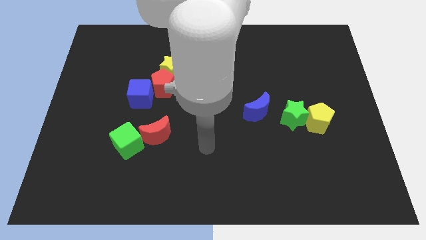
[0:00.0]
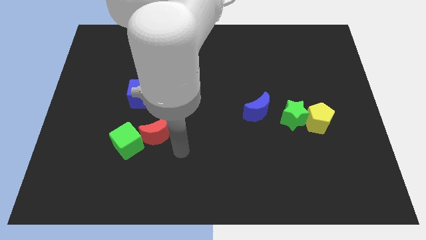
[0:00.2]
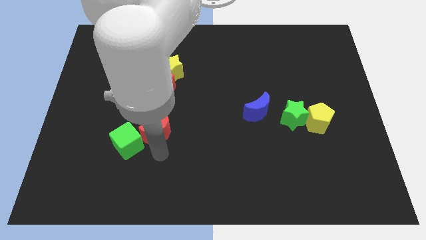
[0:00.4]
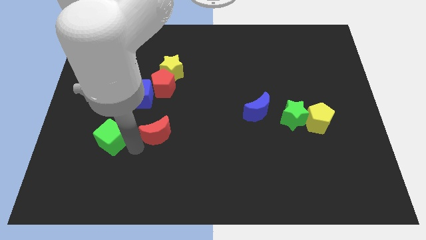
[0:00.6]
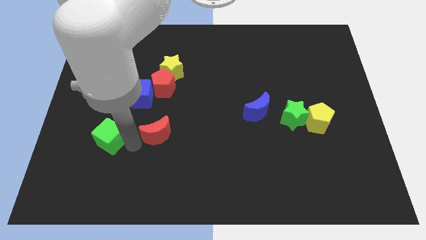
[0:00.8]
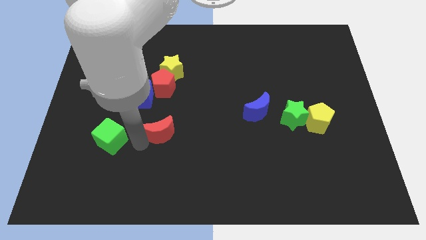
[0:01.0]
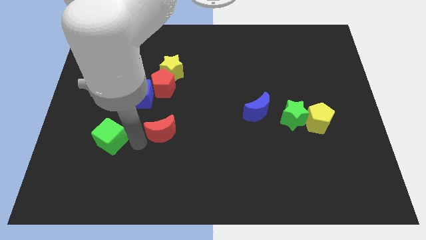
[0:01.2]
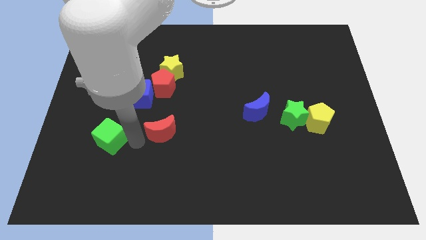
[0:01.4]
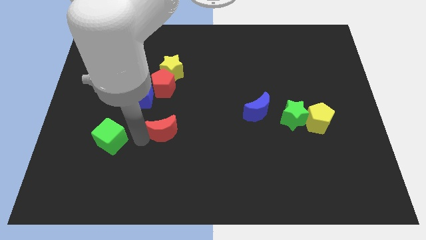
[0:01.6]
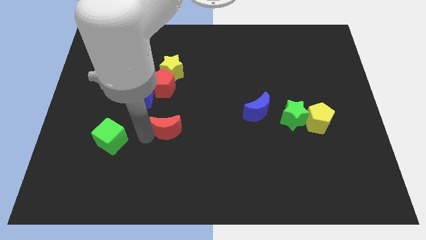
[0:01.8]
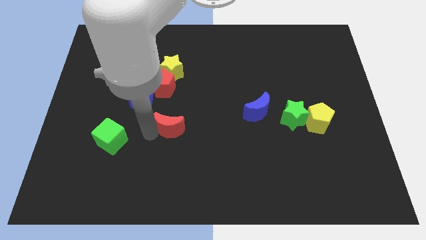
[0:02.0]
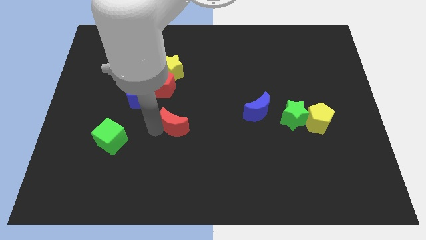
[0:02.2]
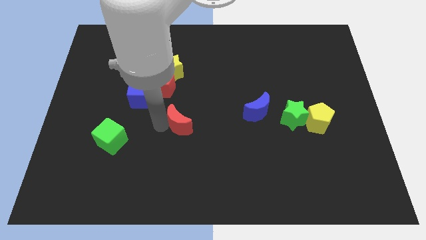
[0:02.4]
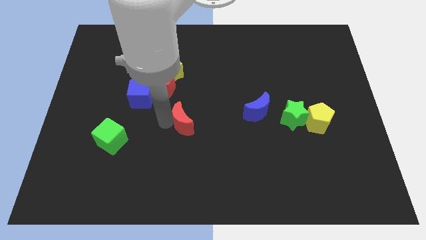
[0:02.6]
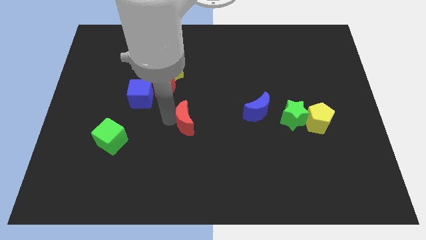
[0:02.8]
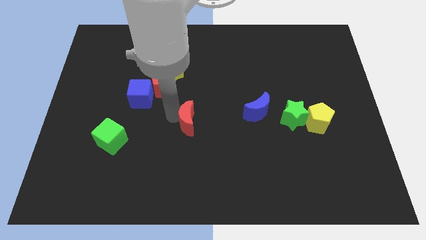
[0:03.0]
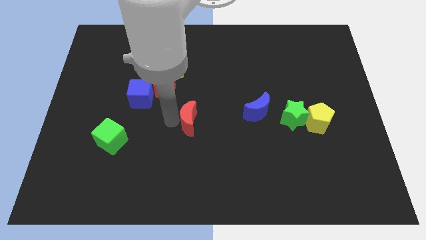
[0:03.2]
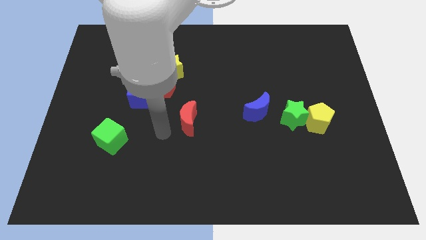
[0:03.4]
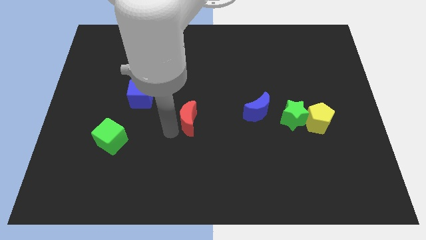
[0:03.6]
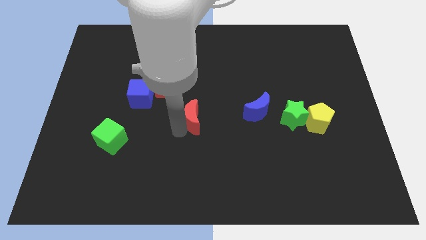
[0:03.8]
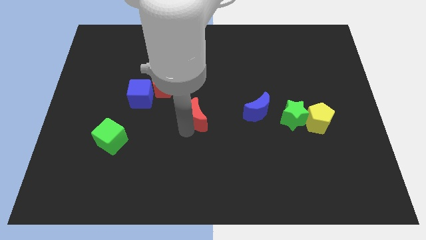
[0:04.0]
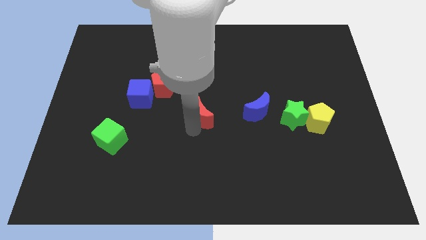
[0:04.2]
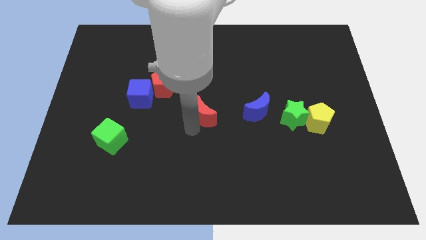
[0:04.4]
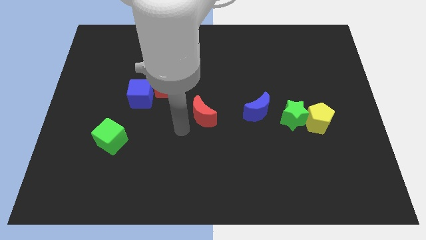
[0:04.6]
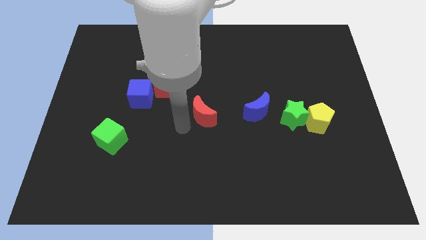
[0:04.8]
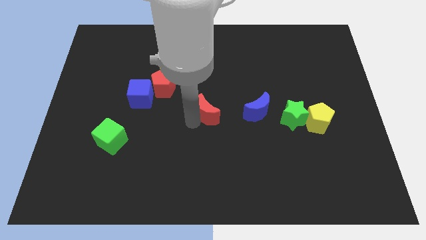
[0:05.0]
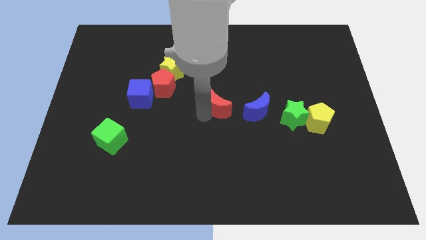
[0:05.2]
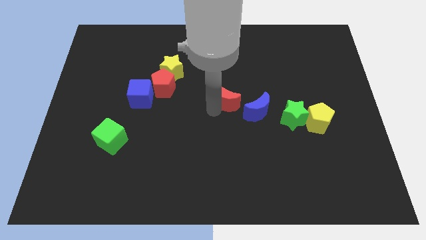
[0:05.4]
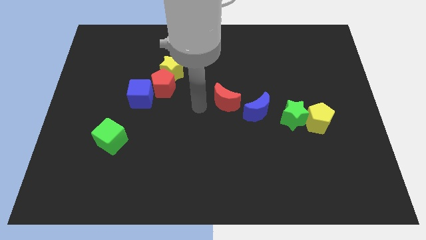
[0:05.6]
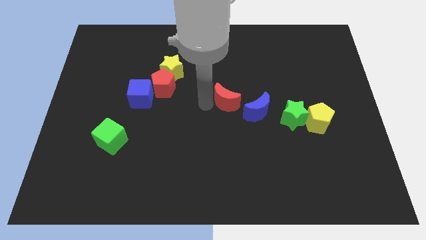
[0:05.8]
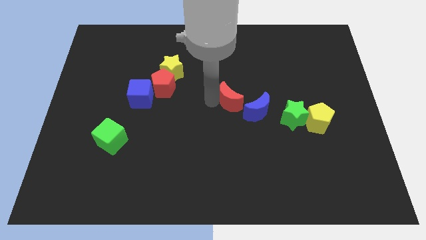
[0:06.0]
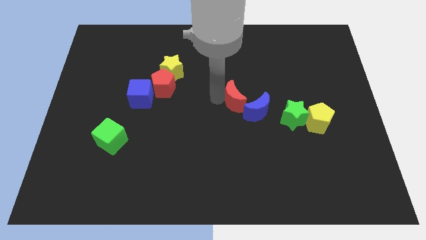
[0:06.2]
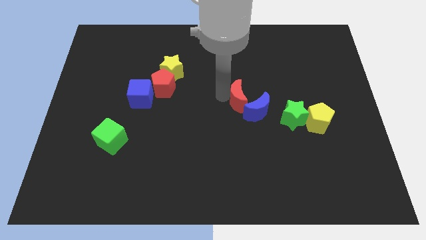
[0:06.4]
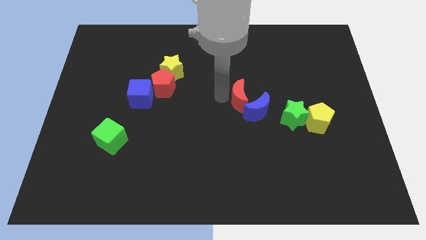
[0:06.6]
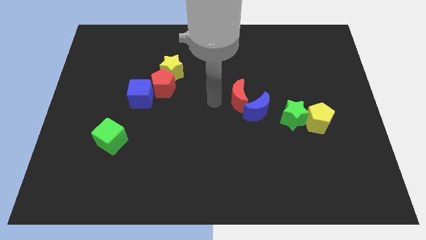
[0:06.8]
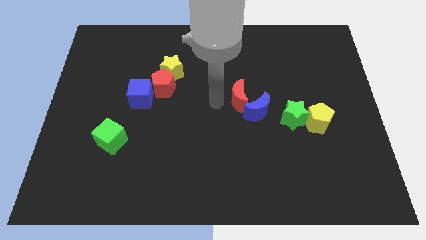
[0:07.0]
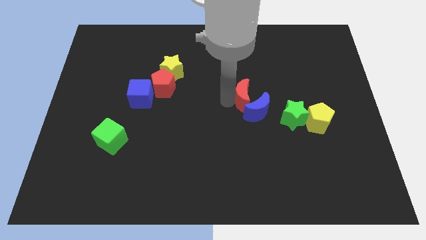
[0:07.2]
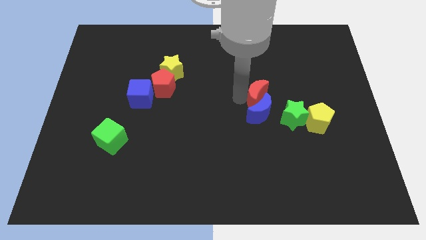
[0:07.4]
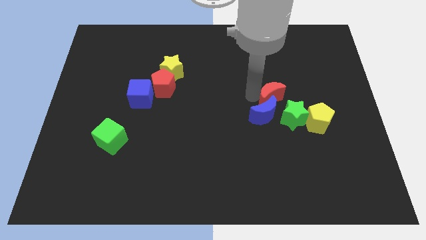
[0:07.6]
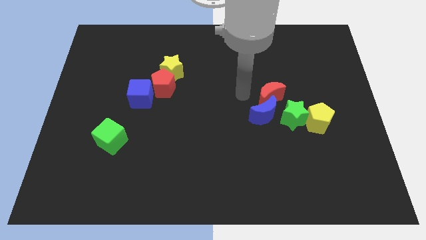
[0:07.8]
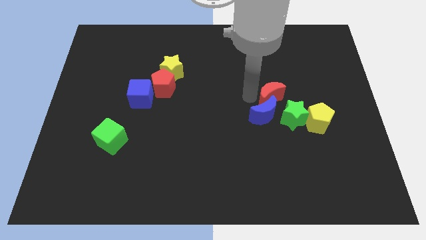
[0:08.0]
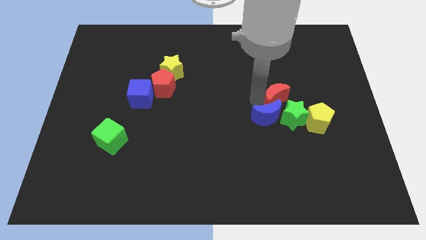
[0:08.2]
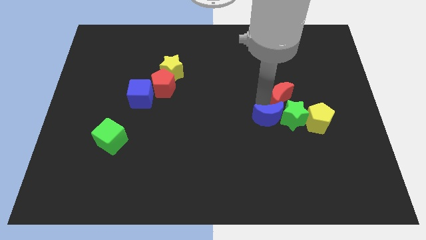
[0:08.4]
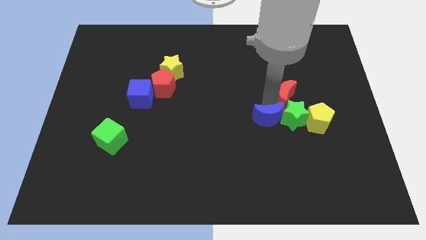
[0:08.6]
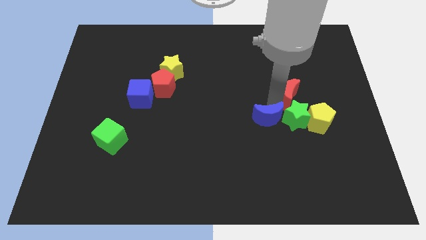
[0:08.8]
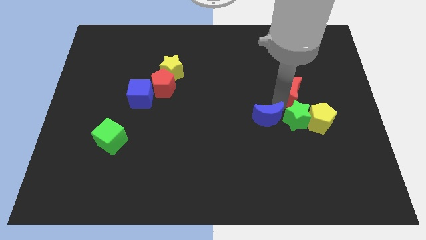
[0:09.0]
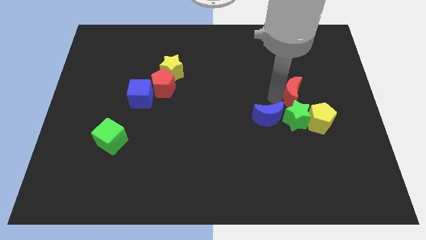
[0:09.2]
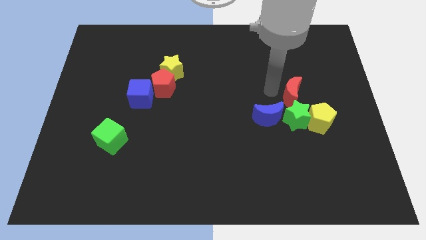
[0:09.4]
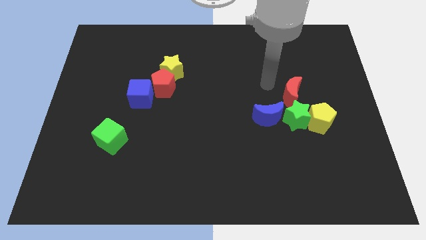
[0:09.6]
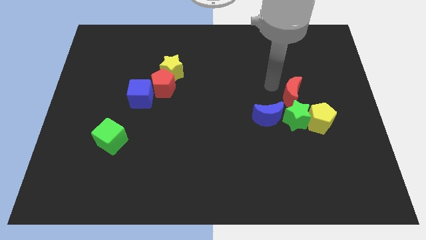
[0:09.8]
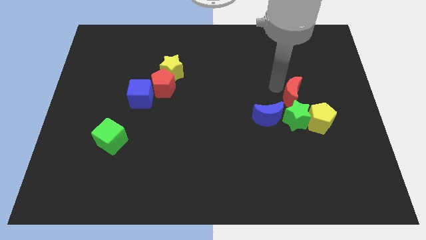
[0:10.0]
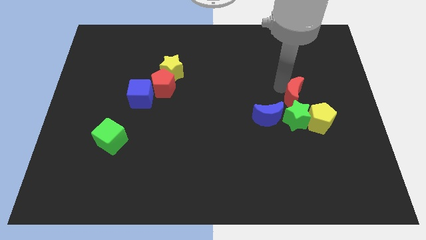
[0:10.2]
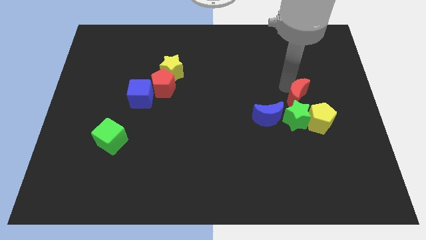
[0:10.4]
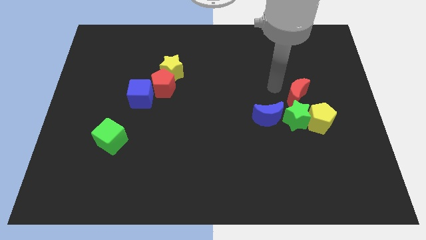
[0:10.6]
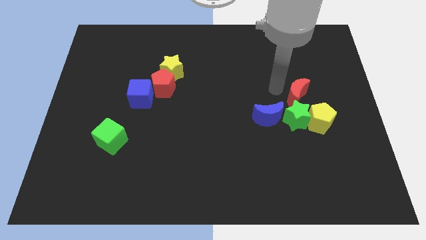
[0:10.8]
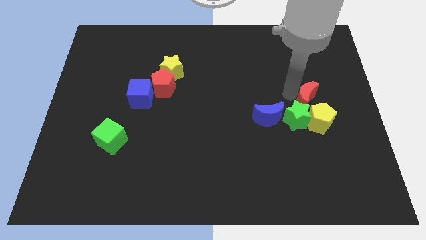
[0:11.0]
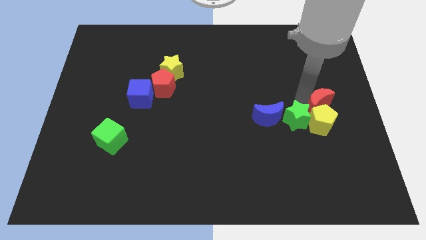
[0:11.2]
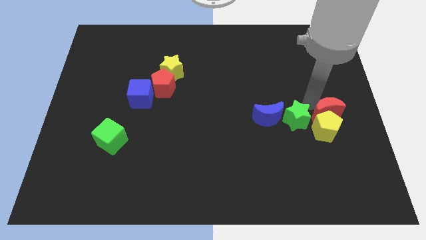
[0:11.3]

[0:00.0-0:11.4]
slide the red moon to the right side of the board

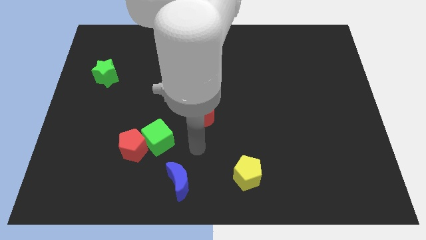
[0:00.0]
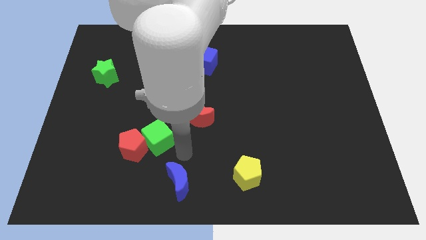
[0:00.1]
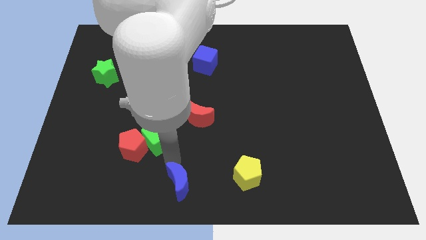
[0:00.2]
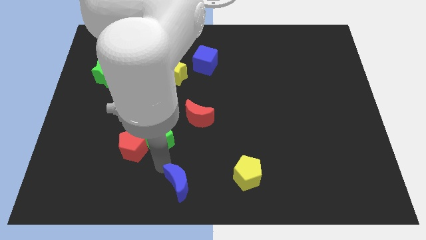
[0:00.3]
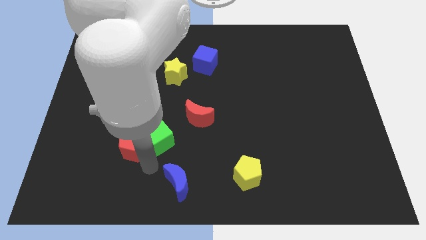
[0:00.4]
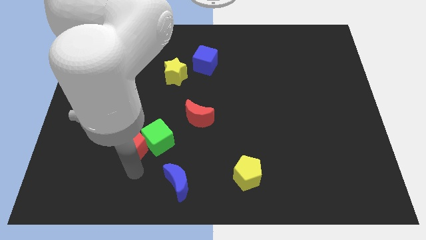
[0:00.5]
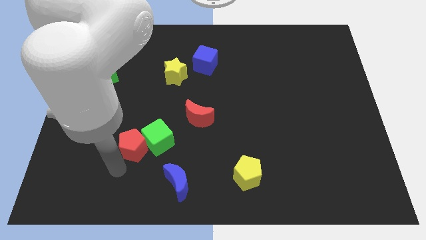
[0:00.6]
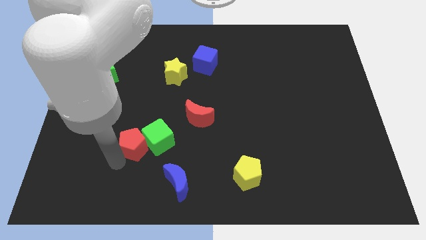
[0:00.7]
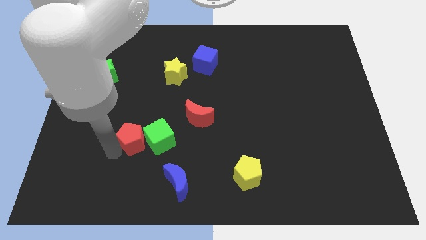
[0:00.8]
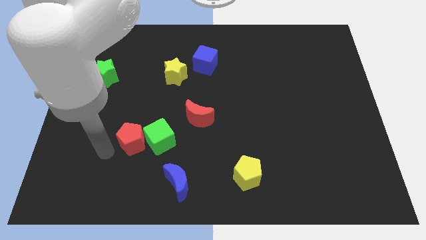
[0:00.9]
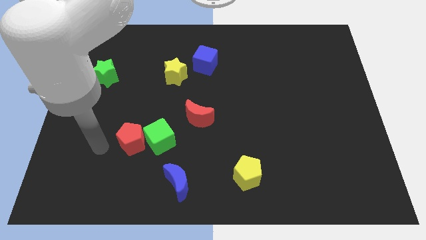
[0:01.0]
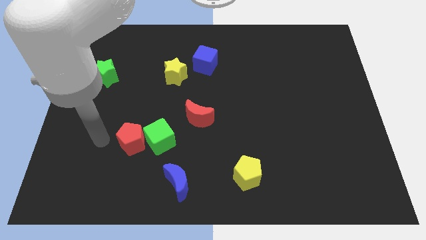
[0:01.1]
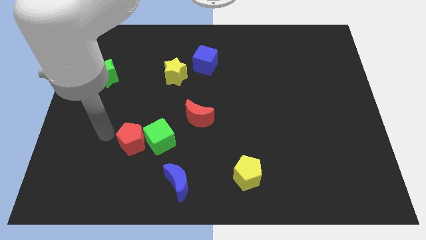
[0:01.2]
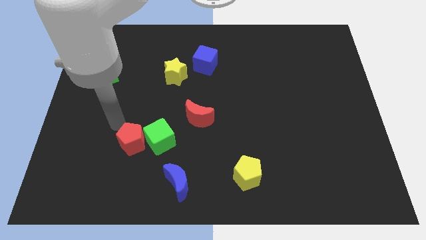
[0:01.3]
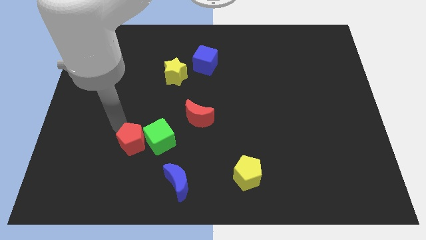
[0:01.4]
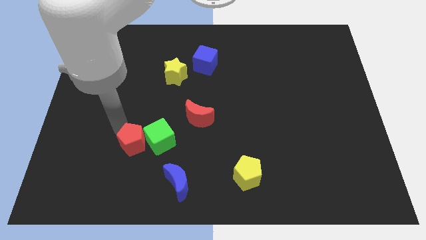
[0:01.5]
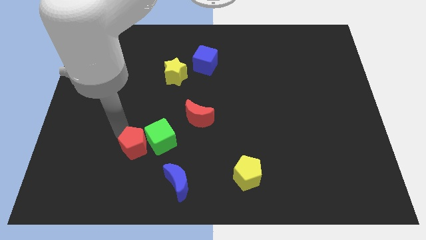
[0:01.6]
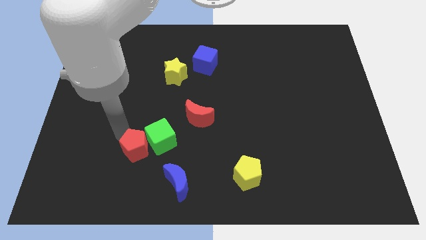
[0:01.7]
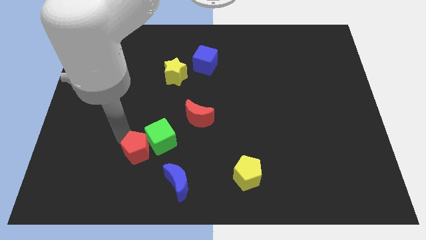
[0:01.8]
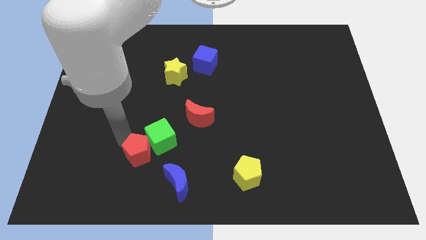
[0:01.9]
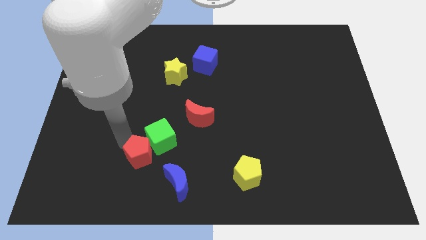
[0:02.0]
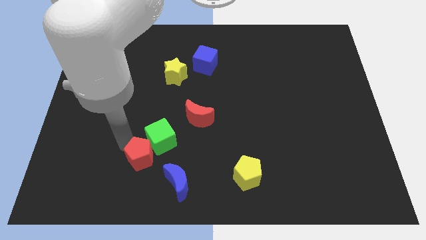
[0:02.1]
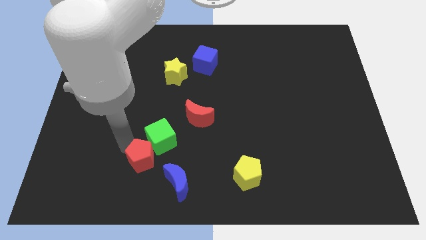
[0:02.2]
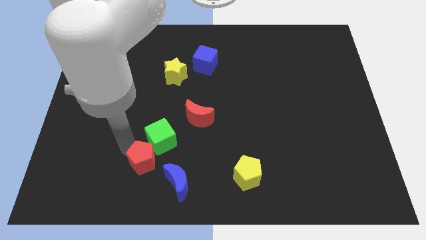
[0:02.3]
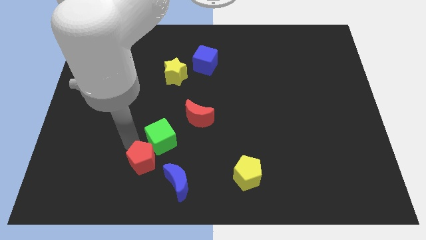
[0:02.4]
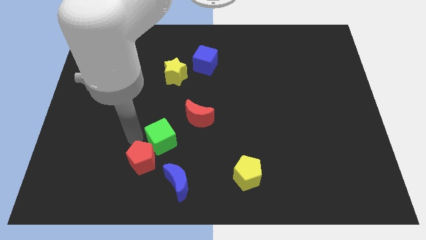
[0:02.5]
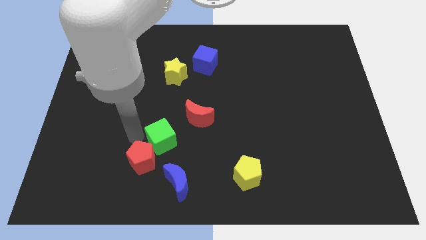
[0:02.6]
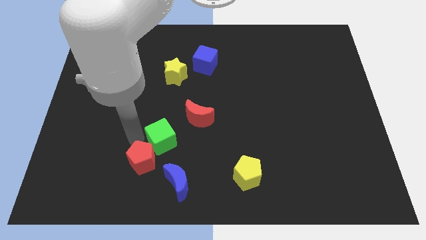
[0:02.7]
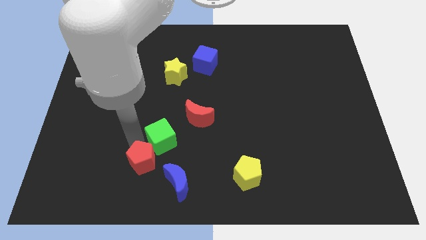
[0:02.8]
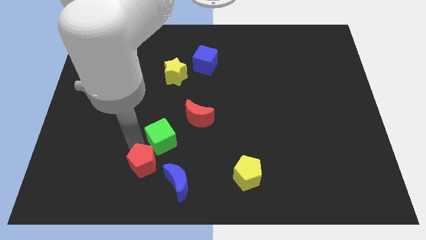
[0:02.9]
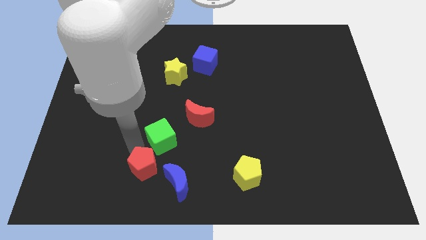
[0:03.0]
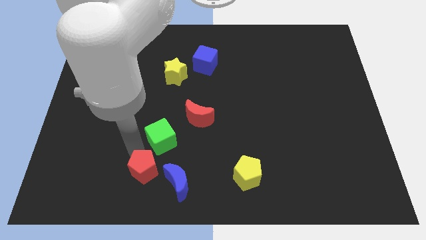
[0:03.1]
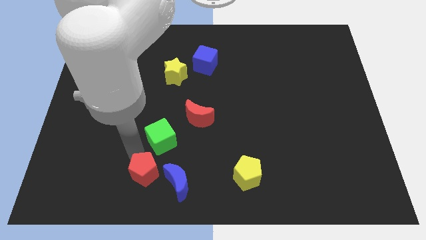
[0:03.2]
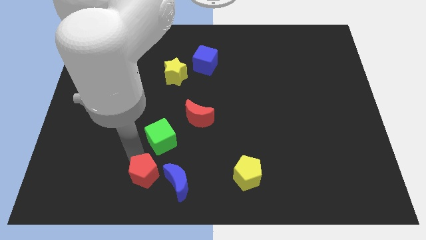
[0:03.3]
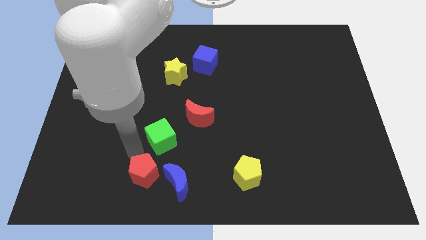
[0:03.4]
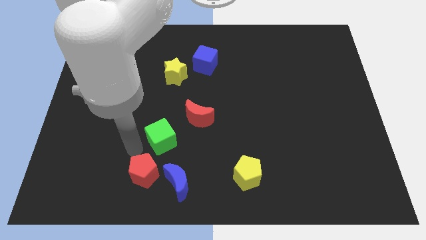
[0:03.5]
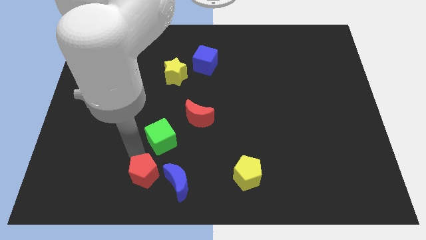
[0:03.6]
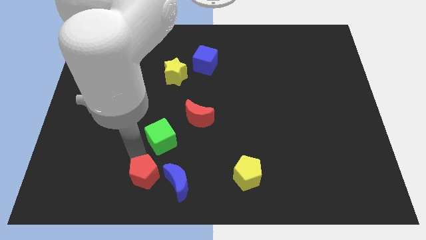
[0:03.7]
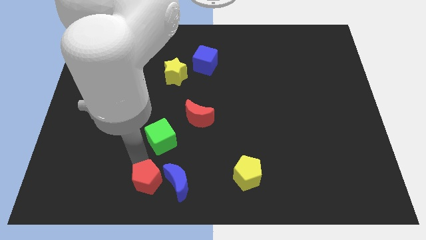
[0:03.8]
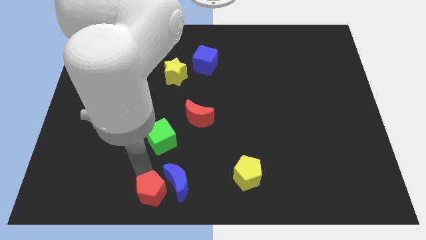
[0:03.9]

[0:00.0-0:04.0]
push the red pentagon to the bottom
